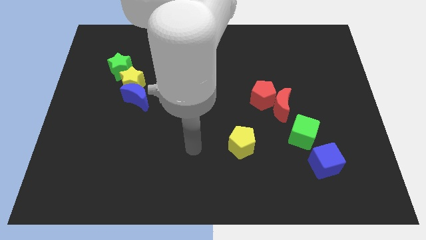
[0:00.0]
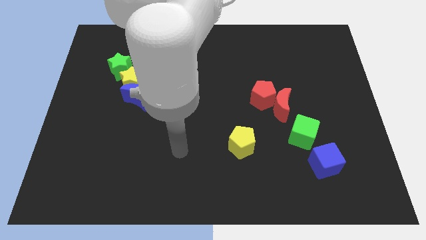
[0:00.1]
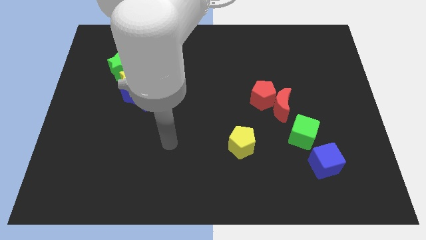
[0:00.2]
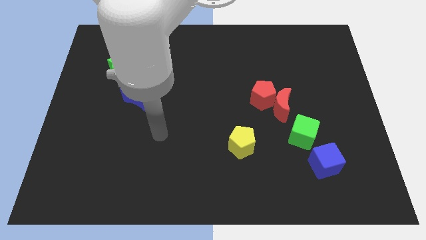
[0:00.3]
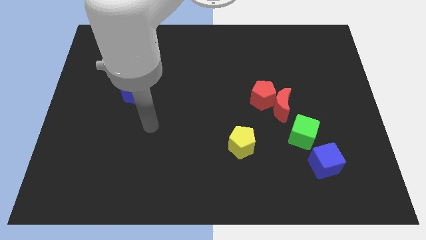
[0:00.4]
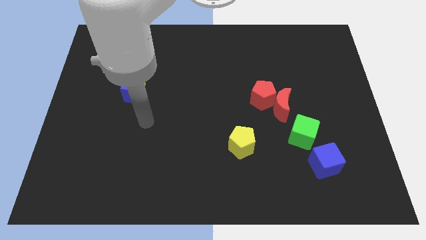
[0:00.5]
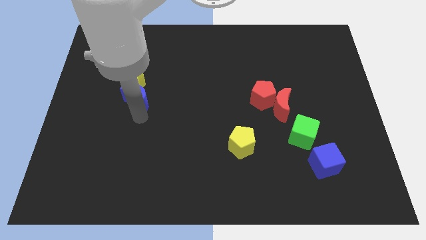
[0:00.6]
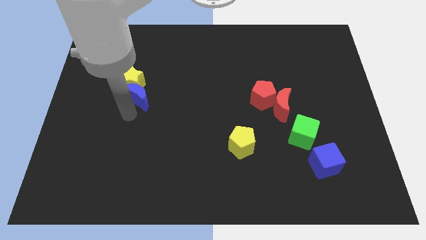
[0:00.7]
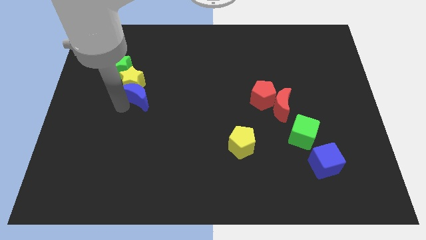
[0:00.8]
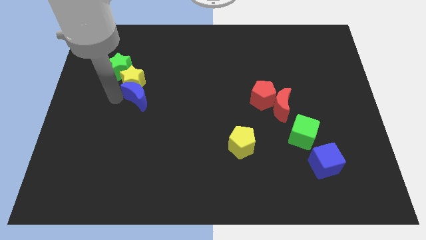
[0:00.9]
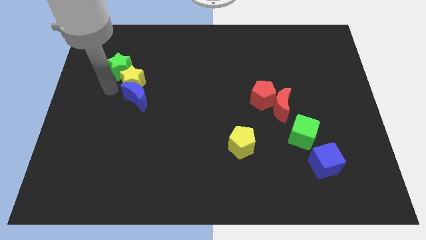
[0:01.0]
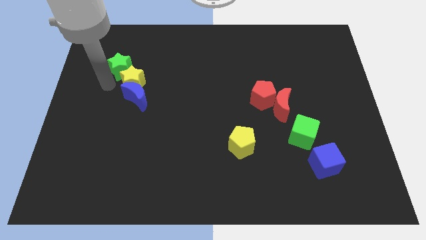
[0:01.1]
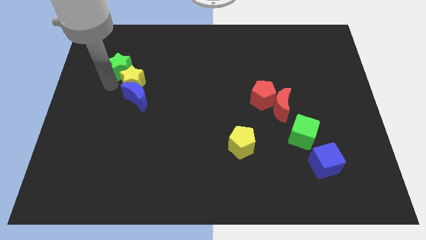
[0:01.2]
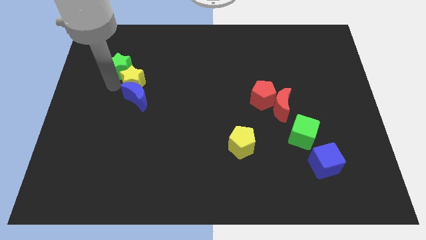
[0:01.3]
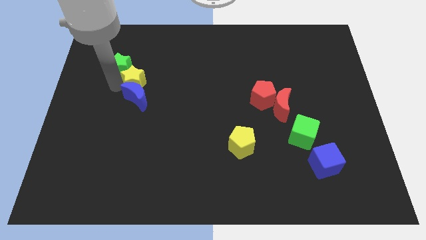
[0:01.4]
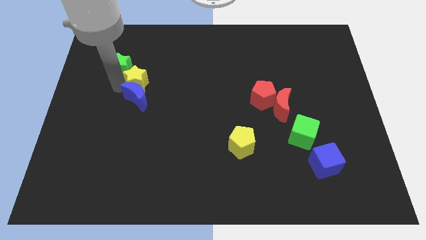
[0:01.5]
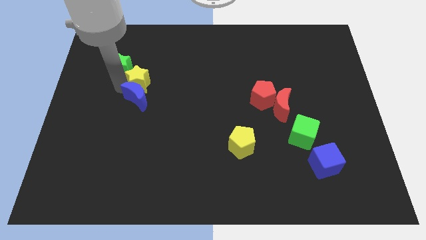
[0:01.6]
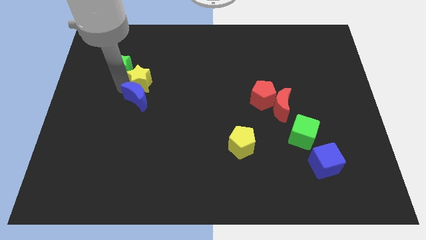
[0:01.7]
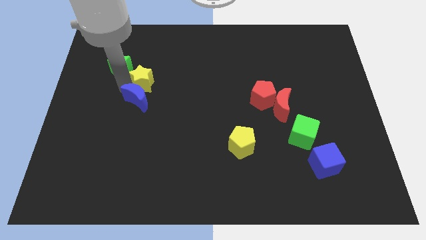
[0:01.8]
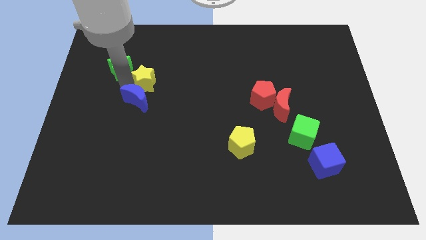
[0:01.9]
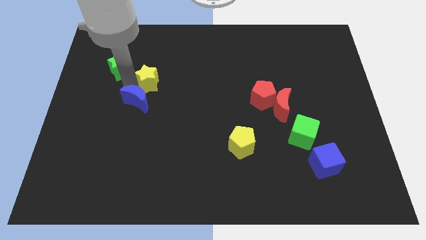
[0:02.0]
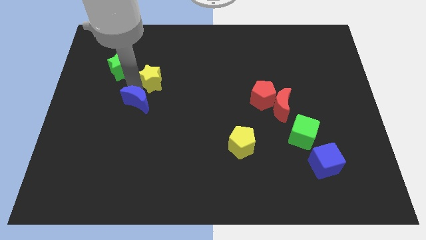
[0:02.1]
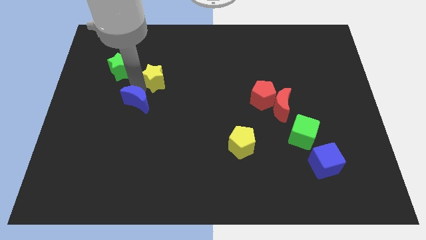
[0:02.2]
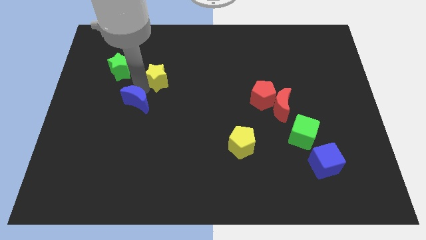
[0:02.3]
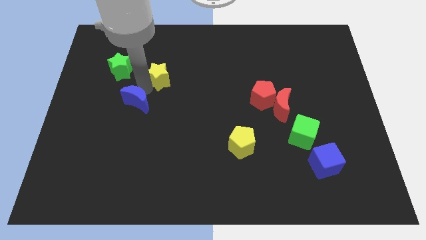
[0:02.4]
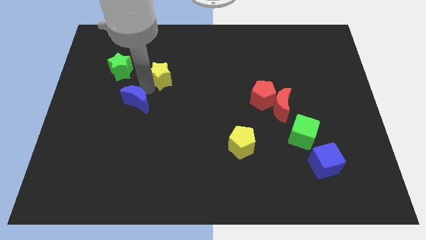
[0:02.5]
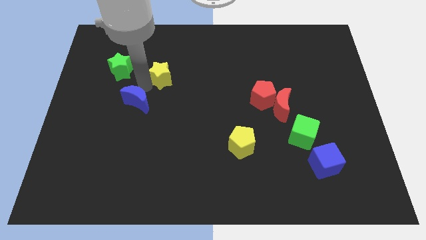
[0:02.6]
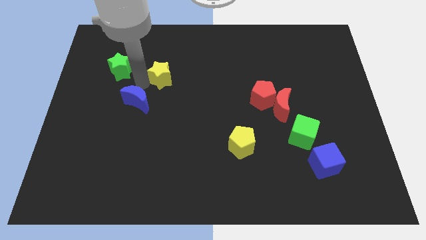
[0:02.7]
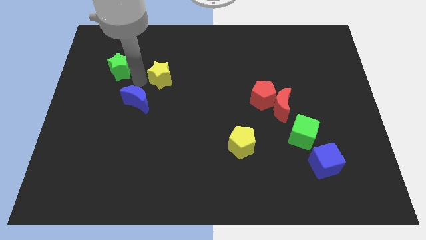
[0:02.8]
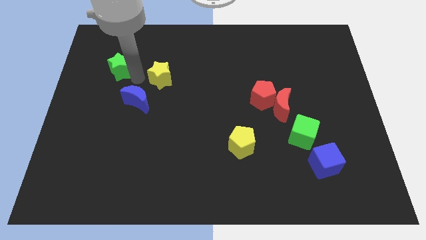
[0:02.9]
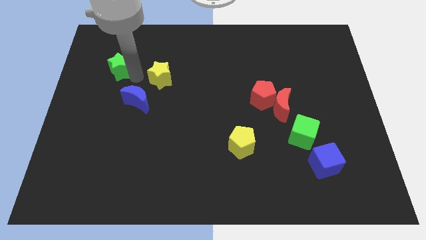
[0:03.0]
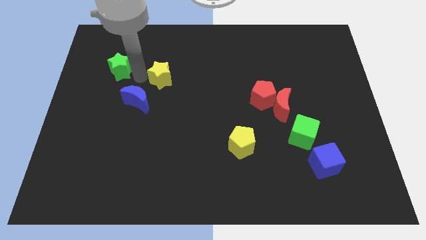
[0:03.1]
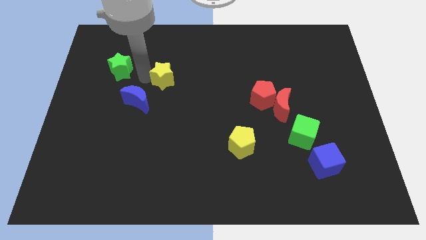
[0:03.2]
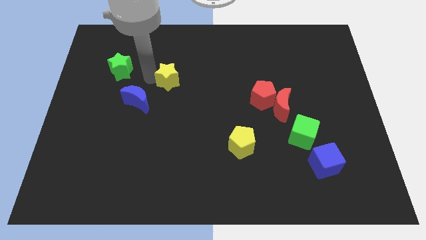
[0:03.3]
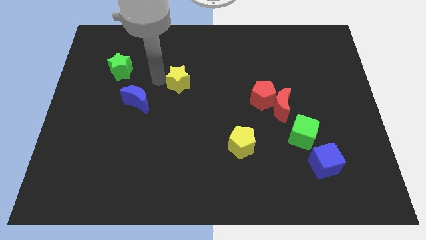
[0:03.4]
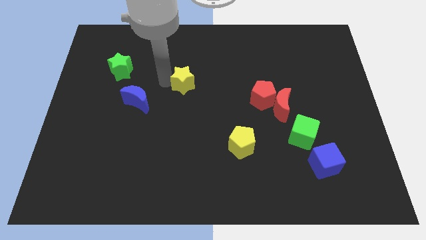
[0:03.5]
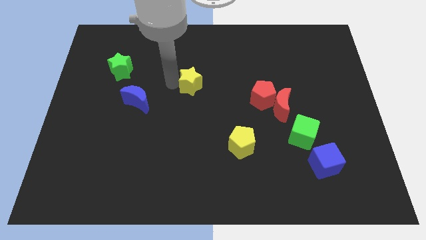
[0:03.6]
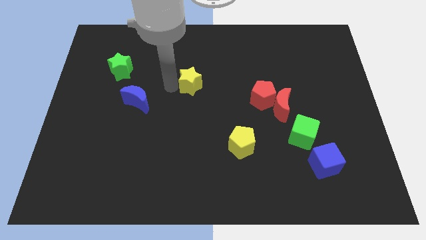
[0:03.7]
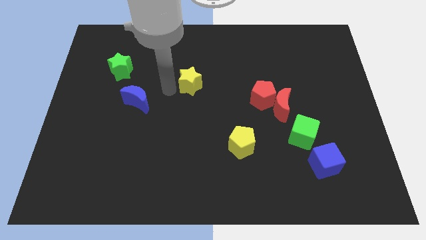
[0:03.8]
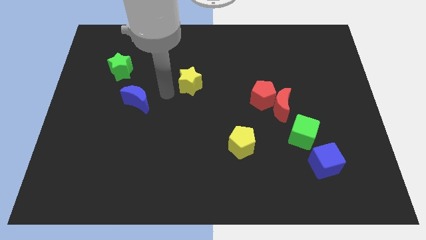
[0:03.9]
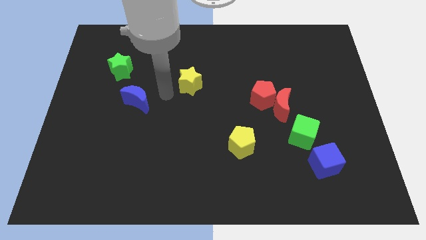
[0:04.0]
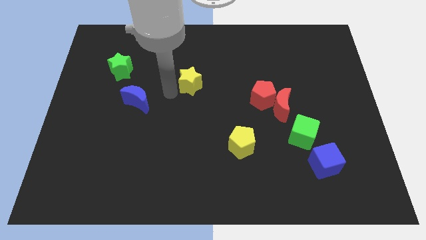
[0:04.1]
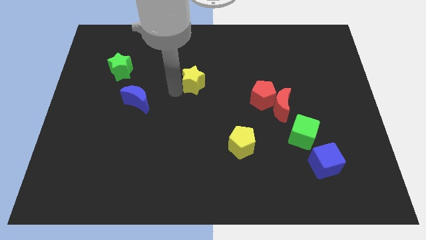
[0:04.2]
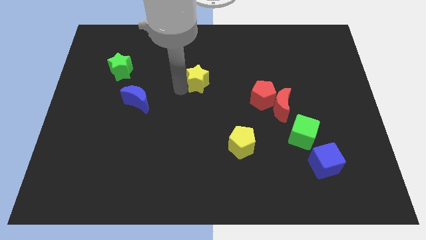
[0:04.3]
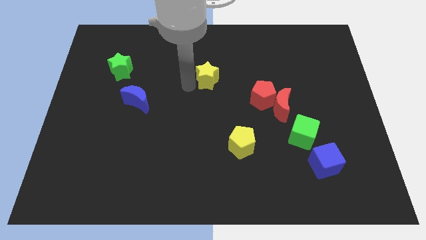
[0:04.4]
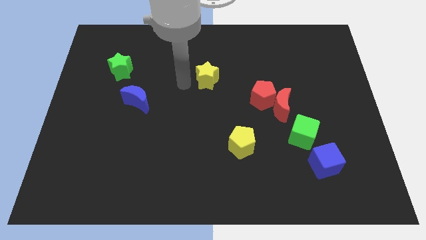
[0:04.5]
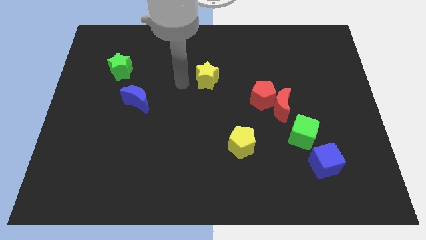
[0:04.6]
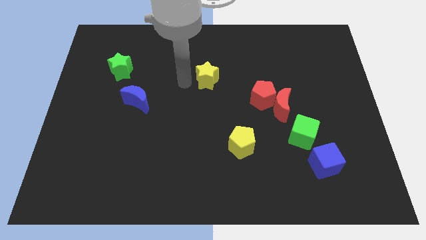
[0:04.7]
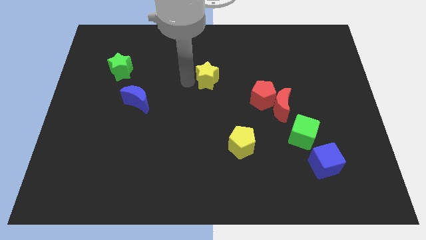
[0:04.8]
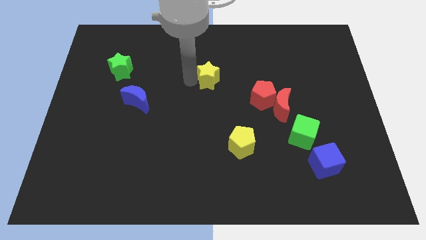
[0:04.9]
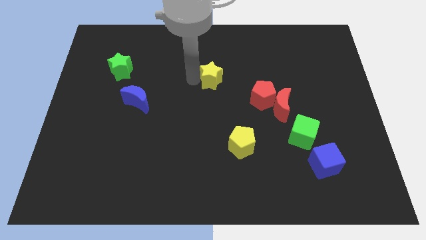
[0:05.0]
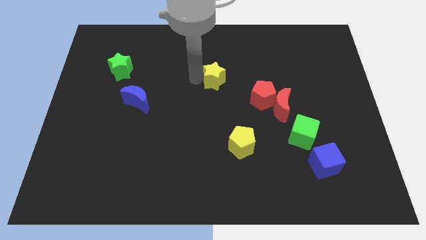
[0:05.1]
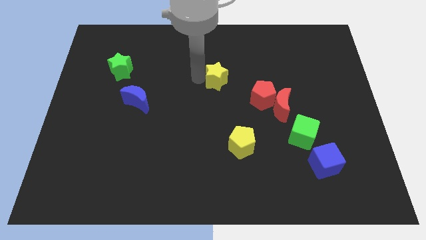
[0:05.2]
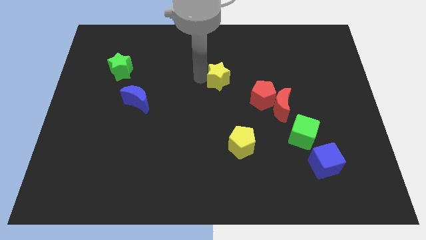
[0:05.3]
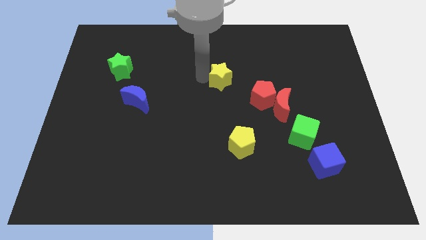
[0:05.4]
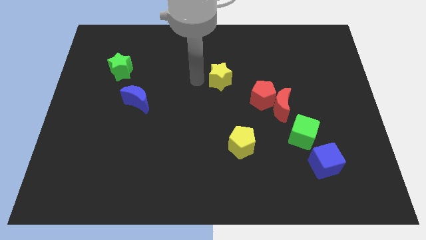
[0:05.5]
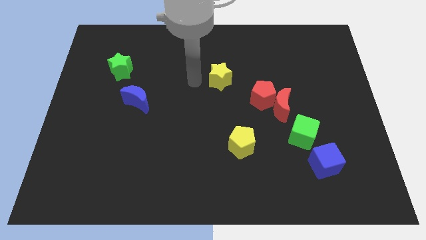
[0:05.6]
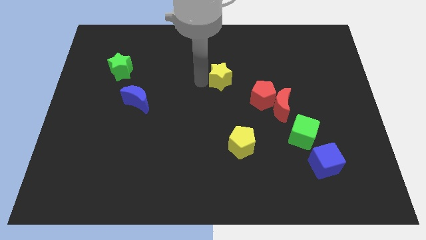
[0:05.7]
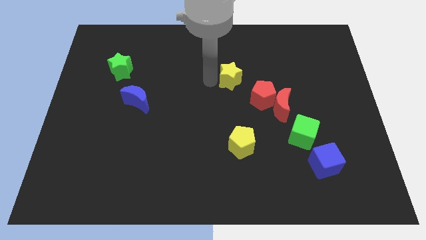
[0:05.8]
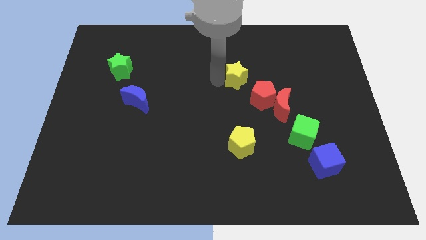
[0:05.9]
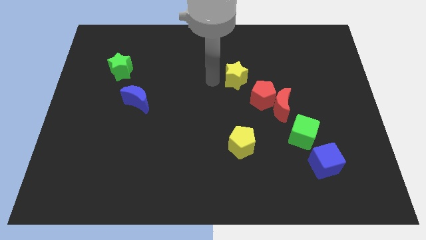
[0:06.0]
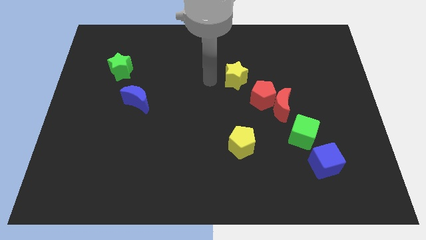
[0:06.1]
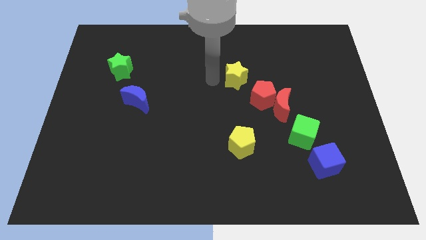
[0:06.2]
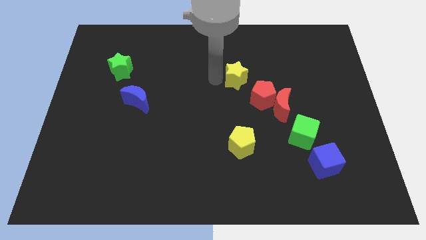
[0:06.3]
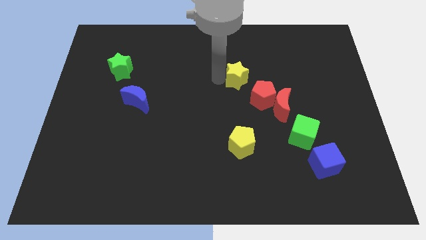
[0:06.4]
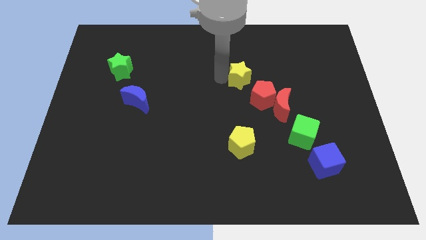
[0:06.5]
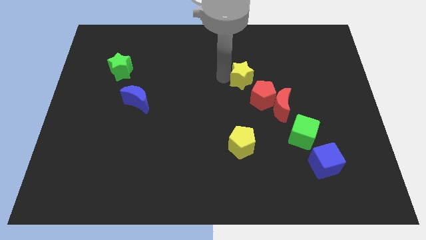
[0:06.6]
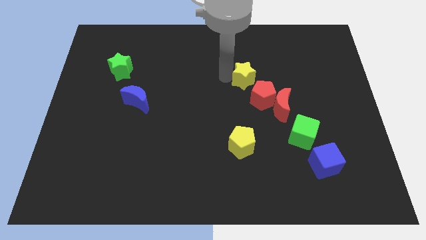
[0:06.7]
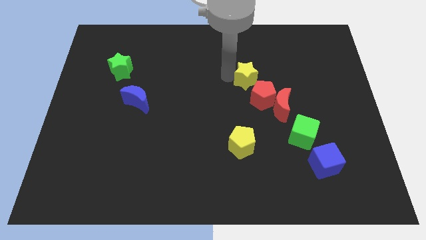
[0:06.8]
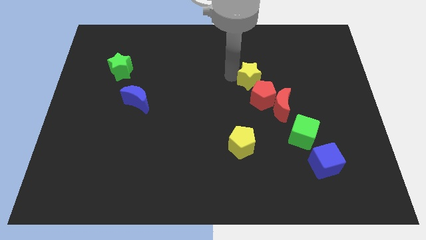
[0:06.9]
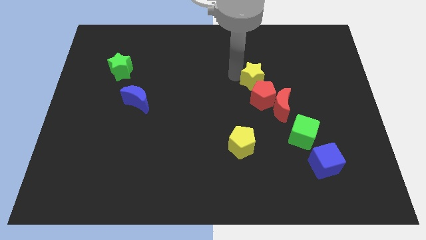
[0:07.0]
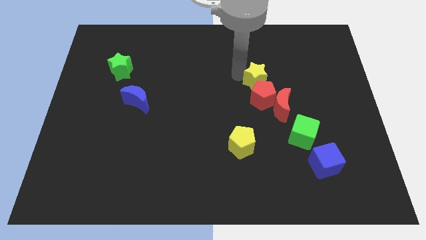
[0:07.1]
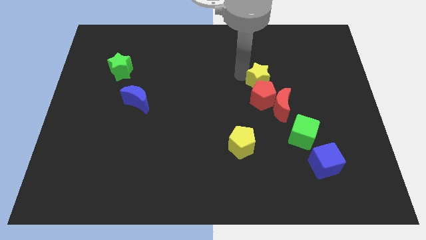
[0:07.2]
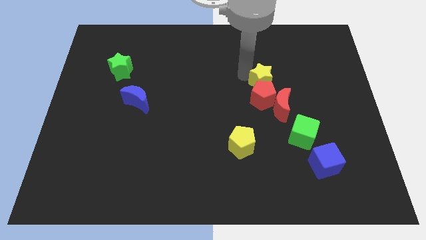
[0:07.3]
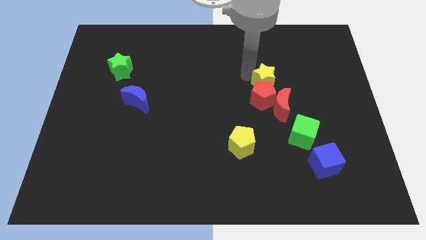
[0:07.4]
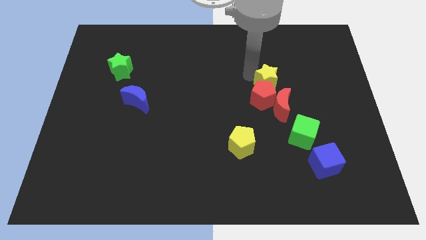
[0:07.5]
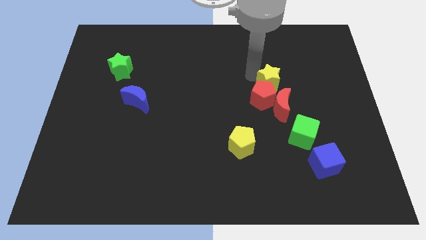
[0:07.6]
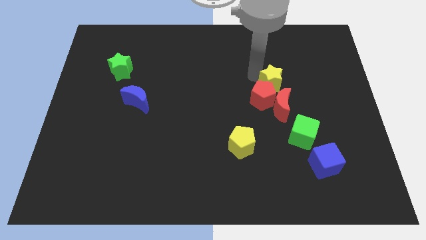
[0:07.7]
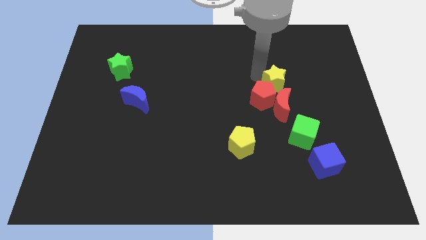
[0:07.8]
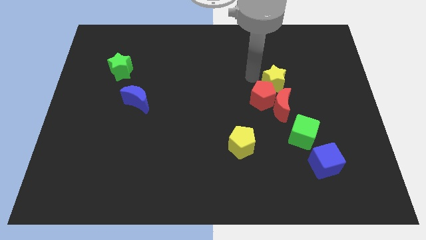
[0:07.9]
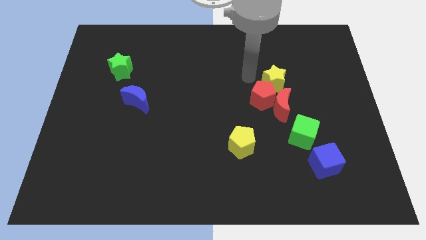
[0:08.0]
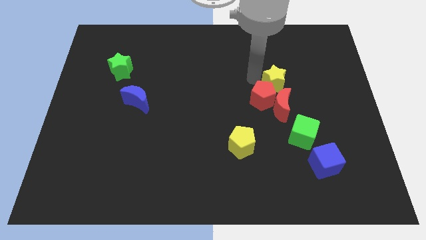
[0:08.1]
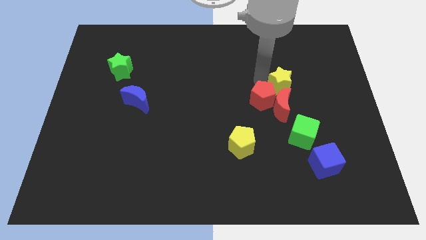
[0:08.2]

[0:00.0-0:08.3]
slide the yellow star to the top right of the red moon
